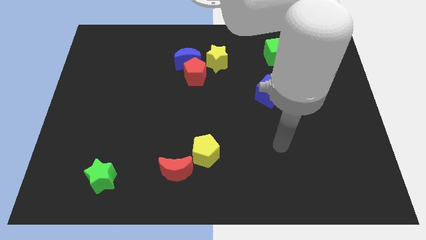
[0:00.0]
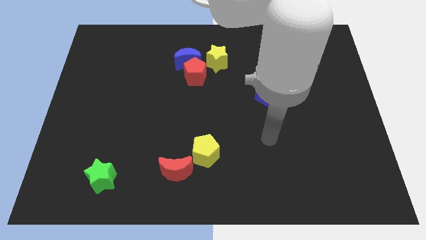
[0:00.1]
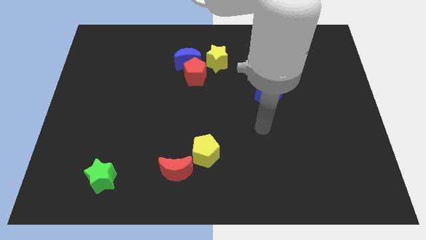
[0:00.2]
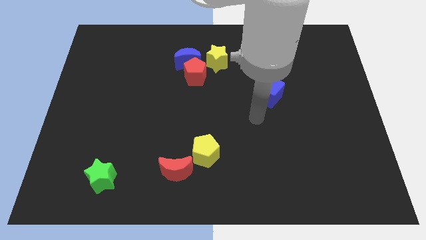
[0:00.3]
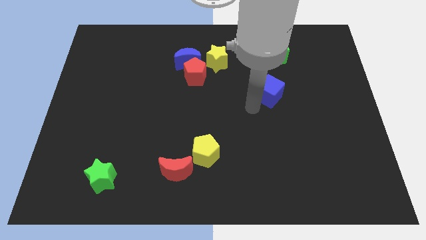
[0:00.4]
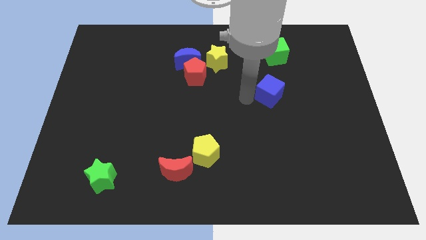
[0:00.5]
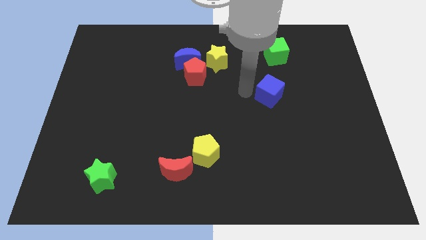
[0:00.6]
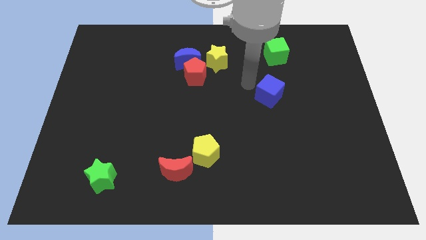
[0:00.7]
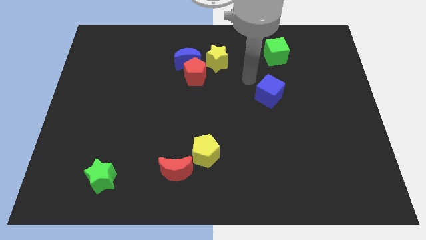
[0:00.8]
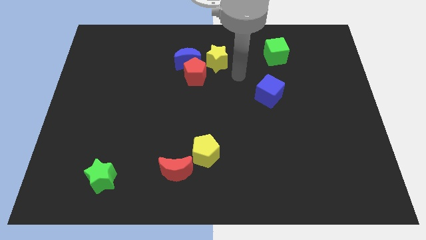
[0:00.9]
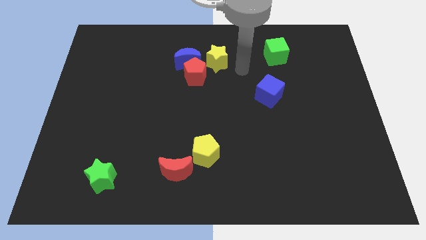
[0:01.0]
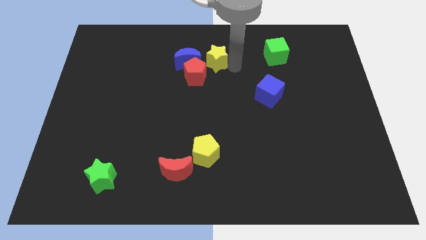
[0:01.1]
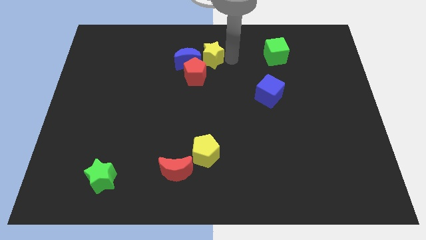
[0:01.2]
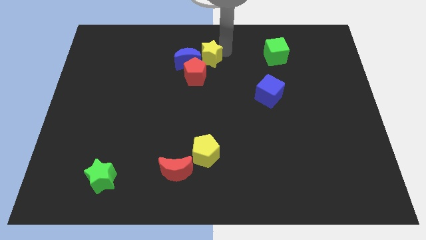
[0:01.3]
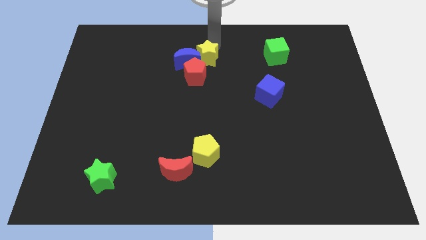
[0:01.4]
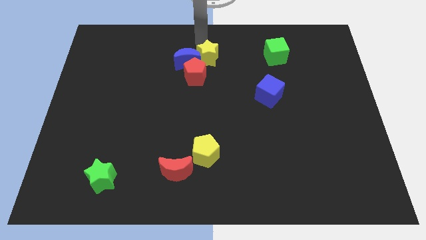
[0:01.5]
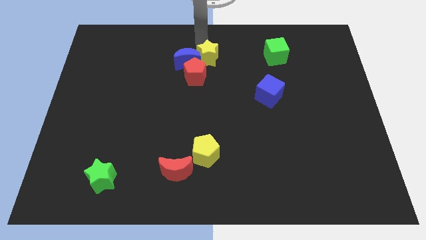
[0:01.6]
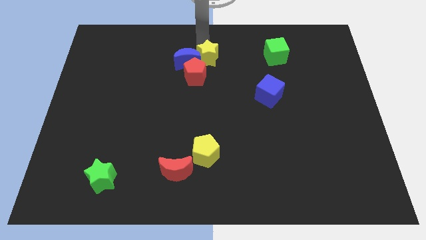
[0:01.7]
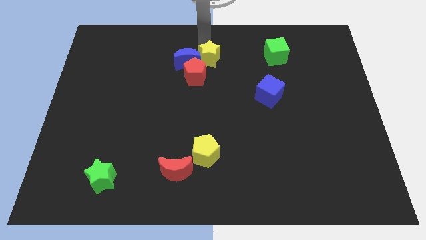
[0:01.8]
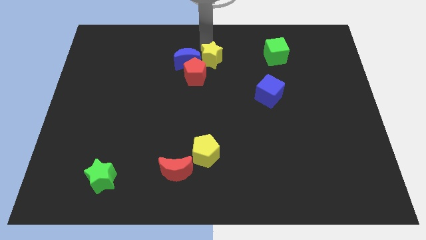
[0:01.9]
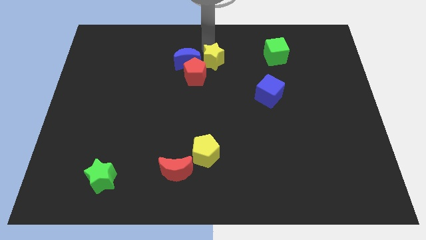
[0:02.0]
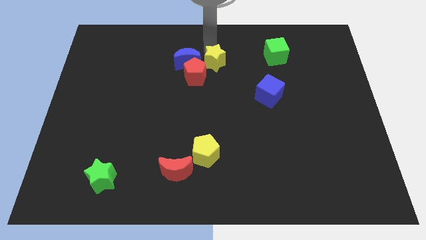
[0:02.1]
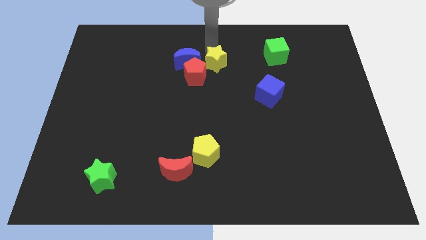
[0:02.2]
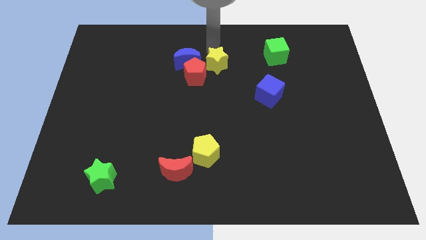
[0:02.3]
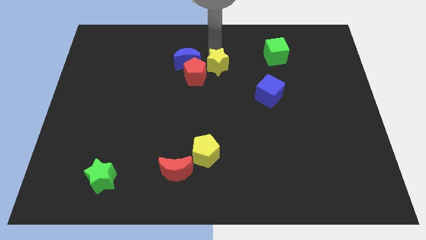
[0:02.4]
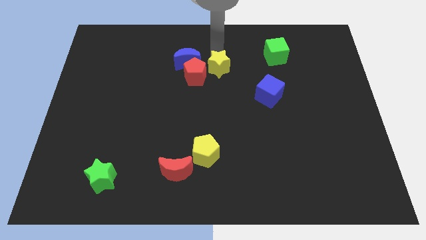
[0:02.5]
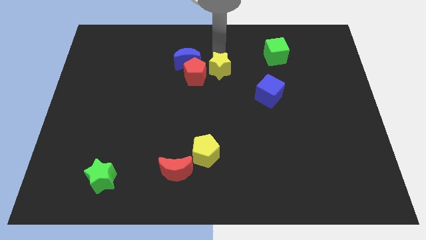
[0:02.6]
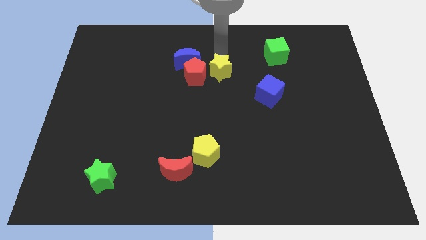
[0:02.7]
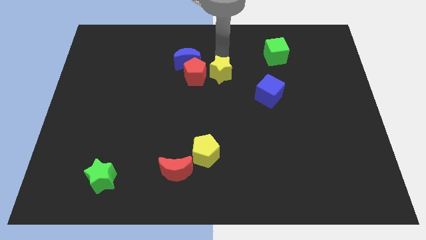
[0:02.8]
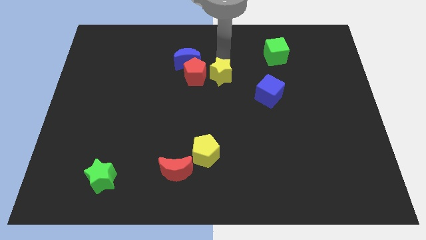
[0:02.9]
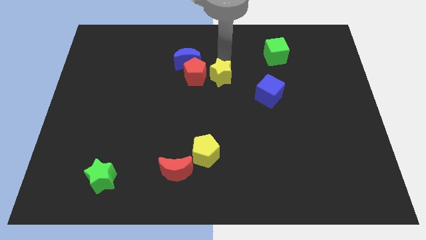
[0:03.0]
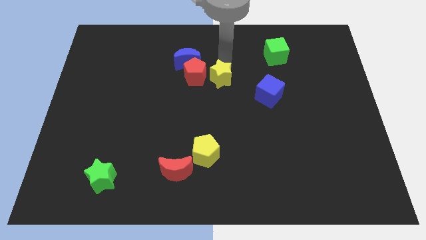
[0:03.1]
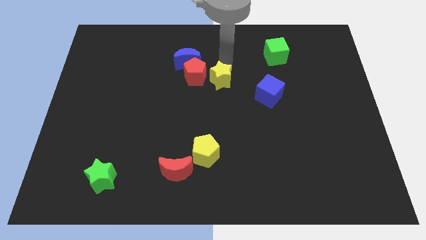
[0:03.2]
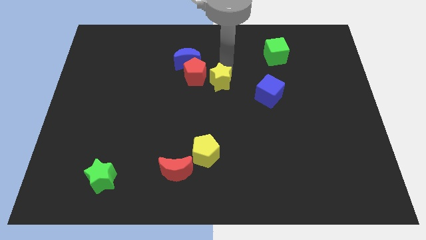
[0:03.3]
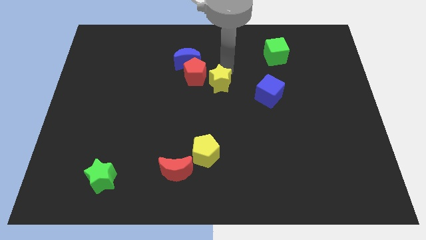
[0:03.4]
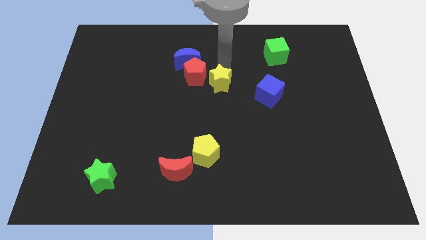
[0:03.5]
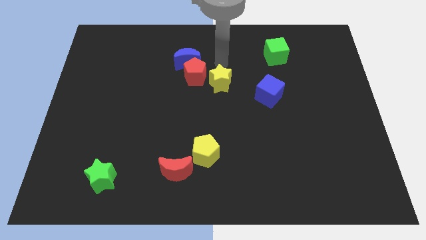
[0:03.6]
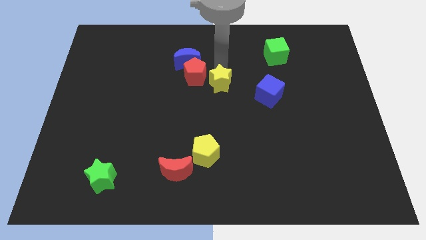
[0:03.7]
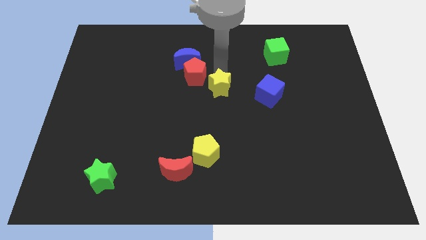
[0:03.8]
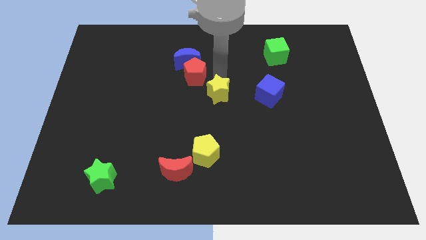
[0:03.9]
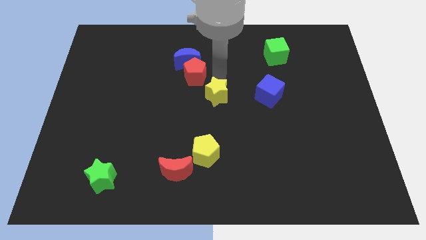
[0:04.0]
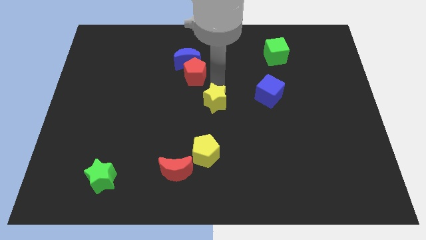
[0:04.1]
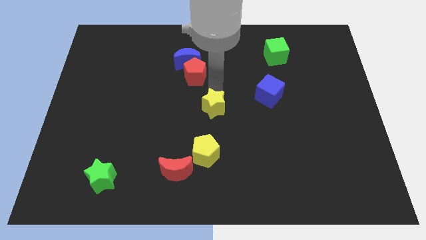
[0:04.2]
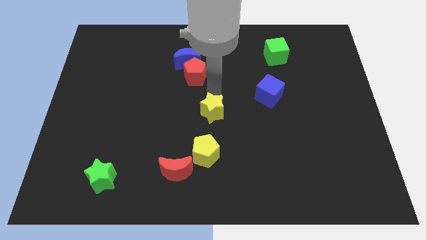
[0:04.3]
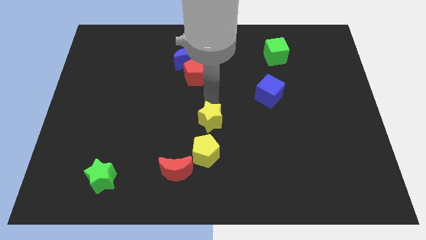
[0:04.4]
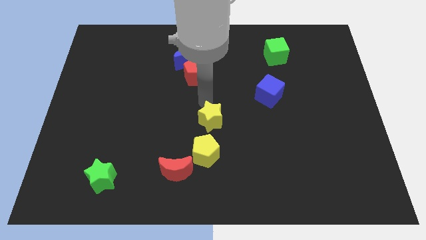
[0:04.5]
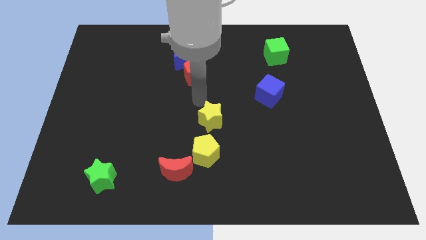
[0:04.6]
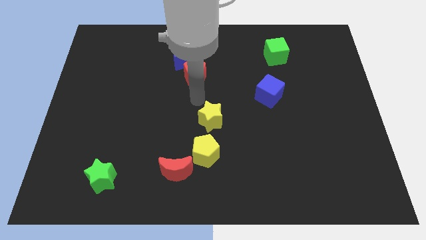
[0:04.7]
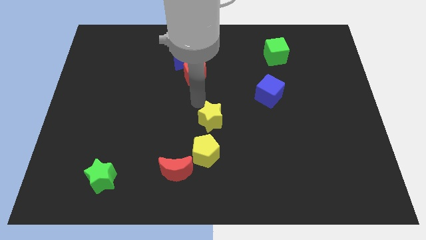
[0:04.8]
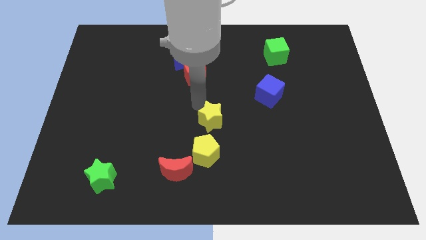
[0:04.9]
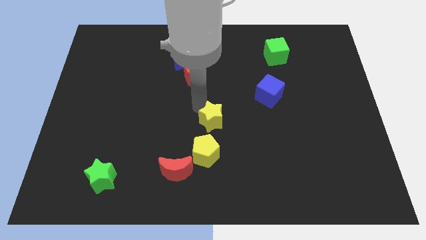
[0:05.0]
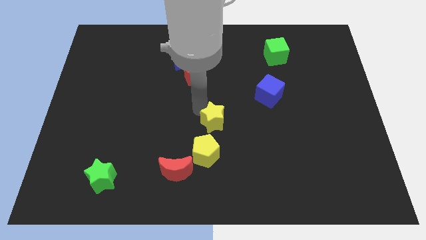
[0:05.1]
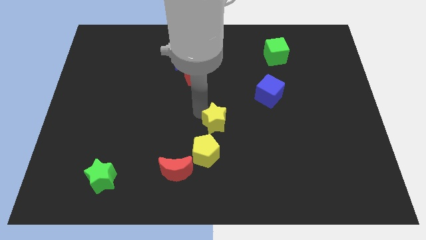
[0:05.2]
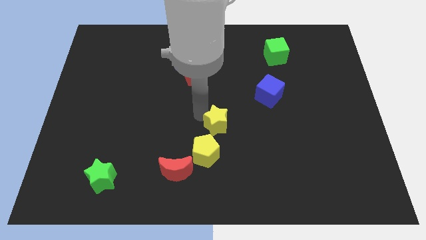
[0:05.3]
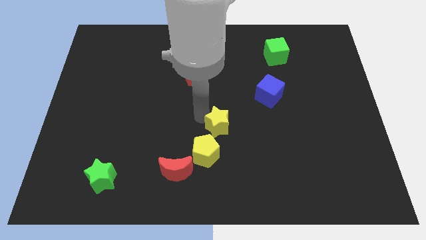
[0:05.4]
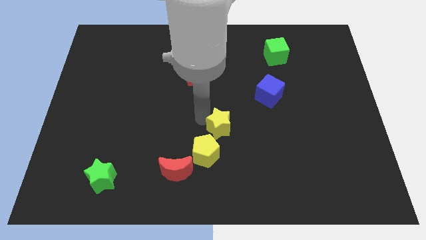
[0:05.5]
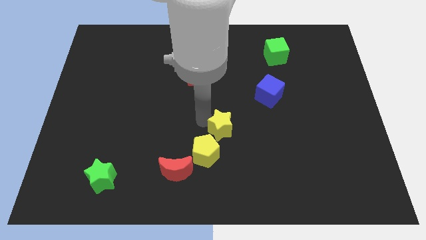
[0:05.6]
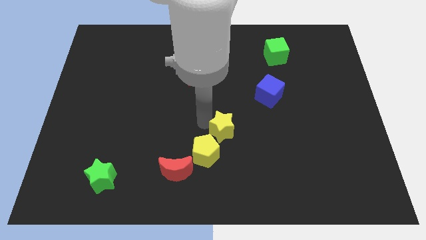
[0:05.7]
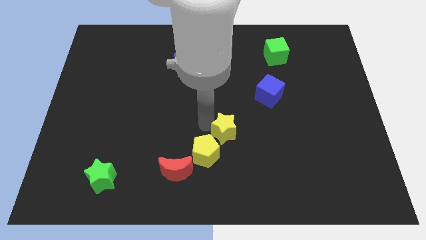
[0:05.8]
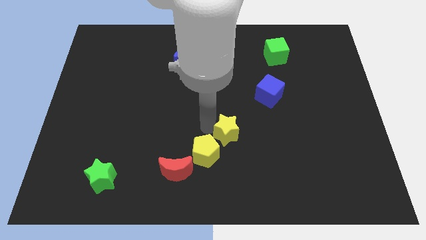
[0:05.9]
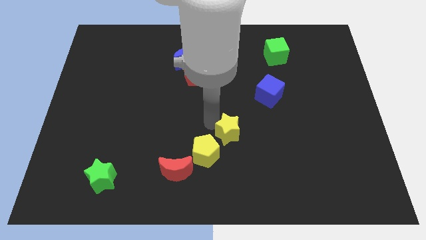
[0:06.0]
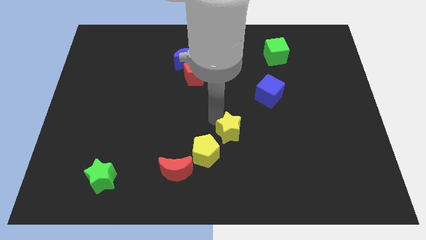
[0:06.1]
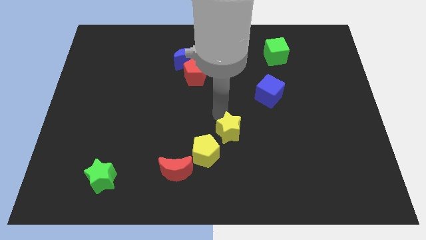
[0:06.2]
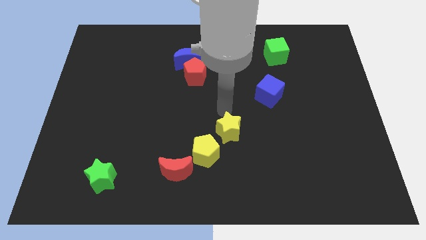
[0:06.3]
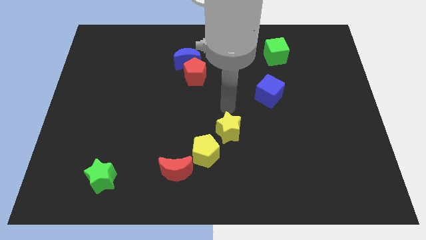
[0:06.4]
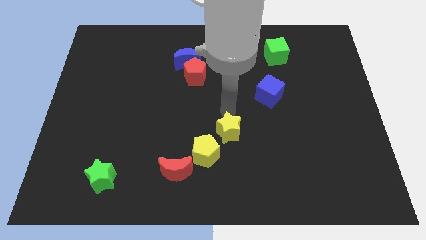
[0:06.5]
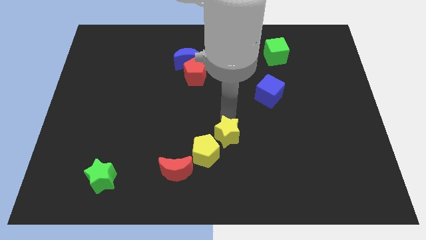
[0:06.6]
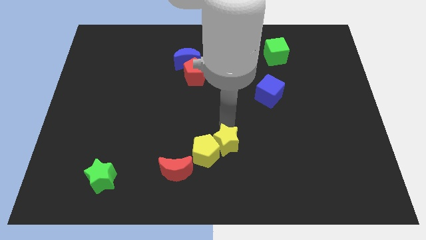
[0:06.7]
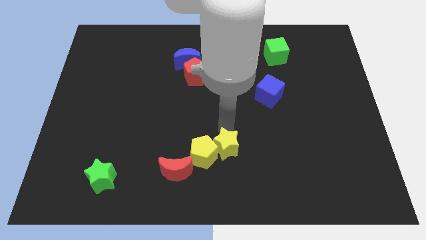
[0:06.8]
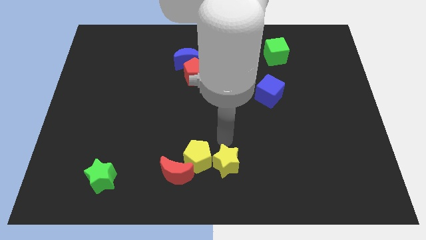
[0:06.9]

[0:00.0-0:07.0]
put the yellow star to the bottom side
